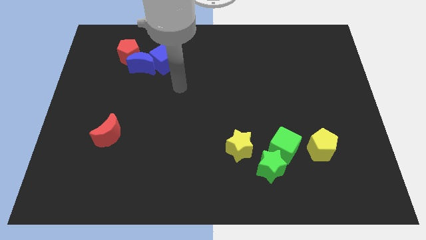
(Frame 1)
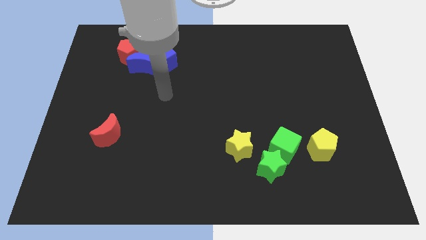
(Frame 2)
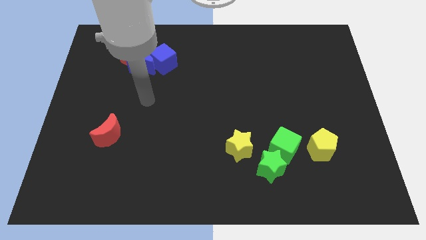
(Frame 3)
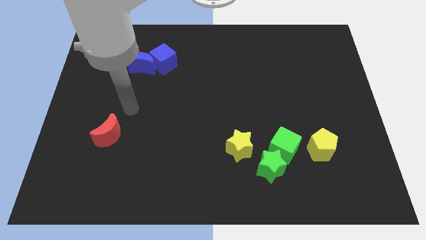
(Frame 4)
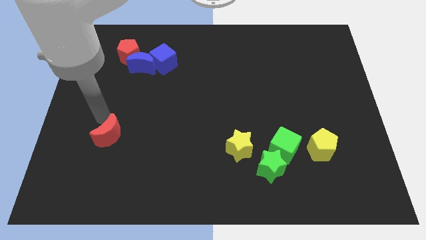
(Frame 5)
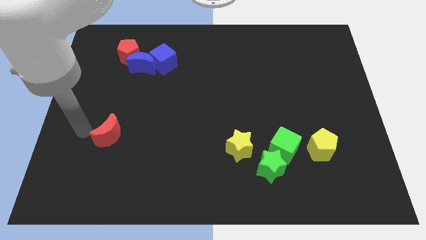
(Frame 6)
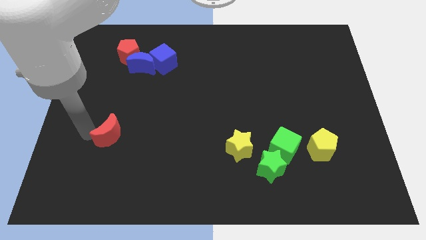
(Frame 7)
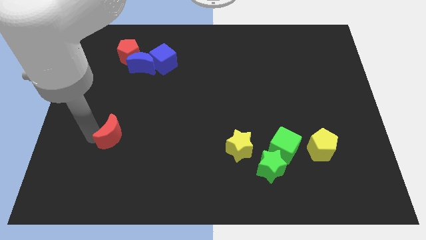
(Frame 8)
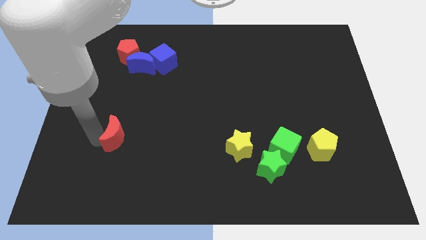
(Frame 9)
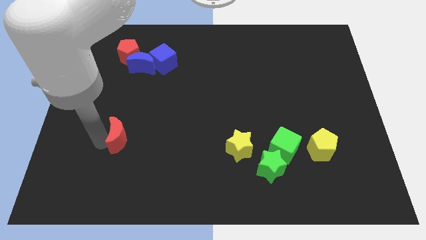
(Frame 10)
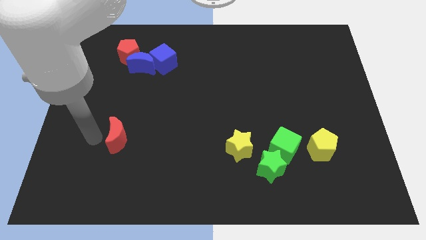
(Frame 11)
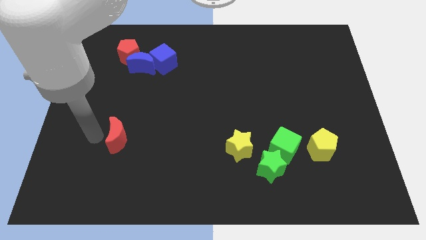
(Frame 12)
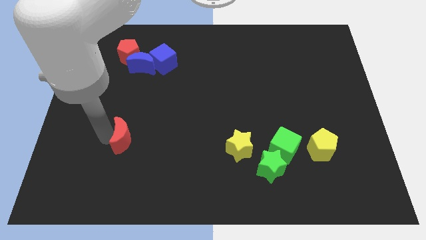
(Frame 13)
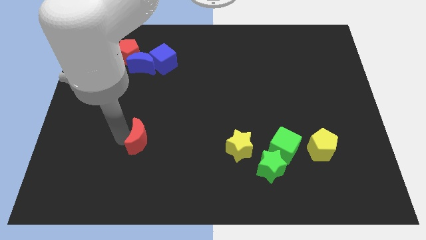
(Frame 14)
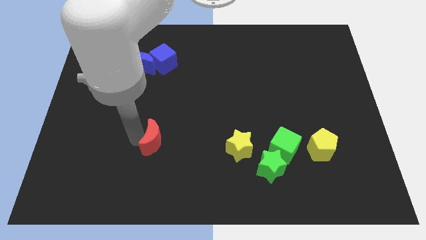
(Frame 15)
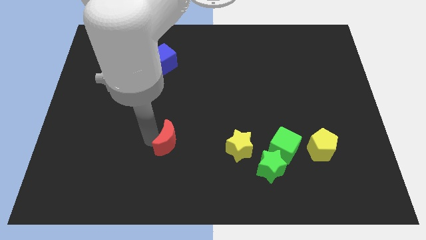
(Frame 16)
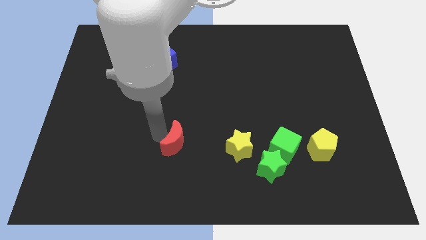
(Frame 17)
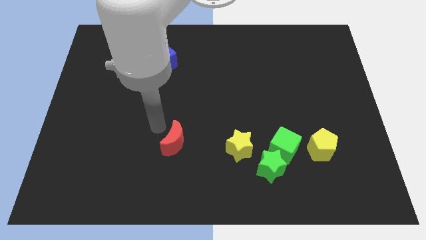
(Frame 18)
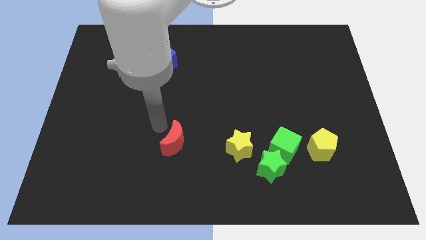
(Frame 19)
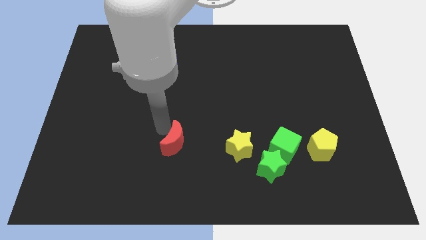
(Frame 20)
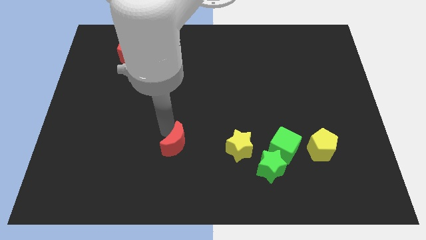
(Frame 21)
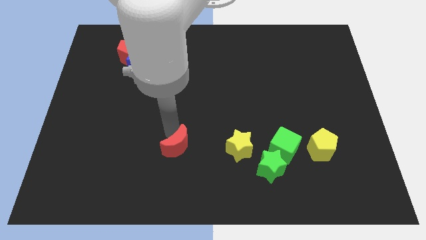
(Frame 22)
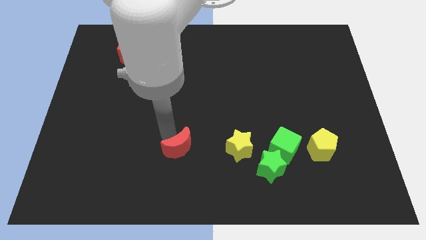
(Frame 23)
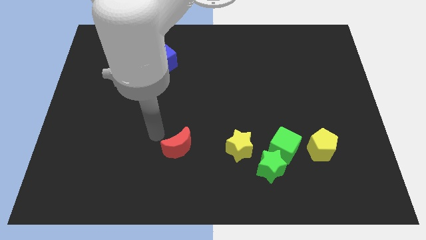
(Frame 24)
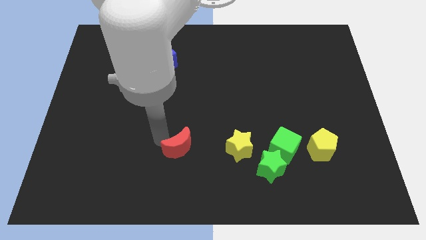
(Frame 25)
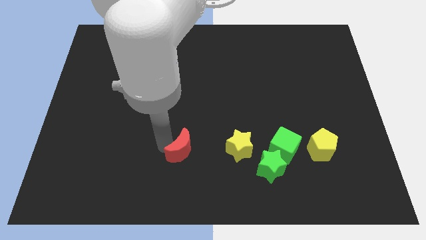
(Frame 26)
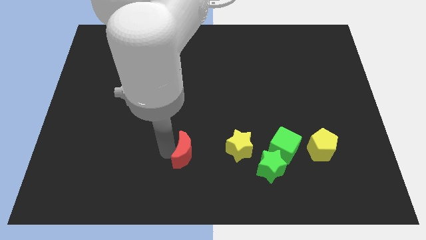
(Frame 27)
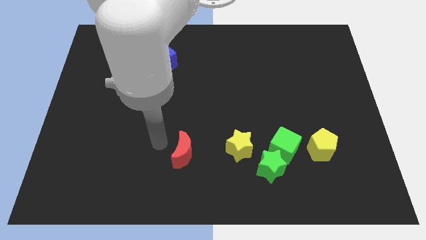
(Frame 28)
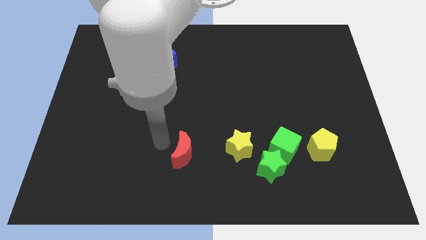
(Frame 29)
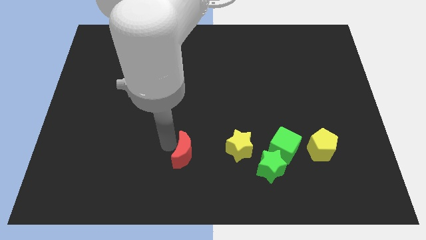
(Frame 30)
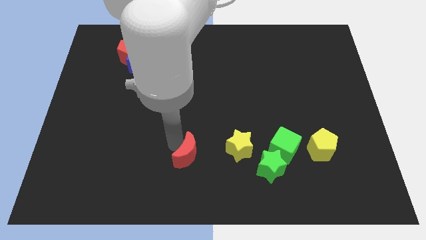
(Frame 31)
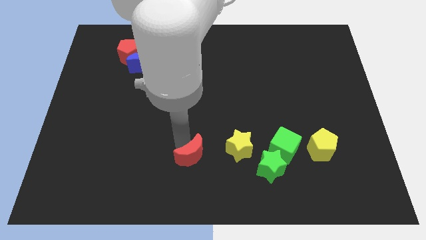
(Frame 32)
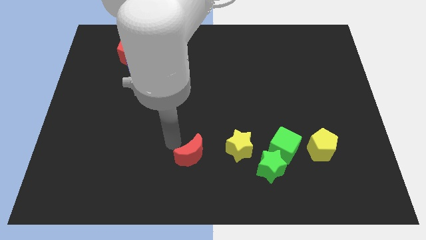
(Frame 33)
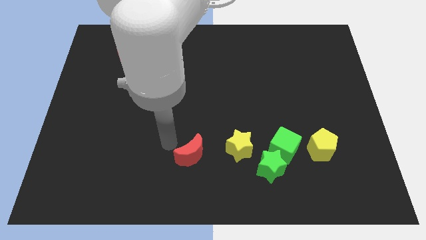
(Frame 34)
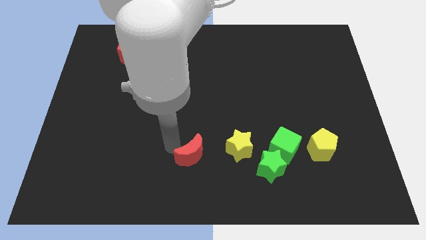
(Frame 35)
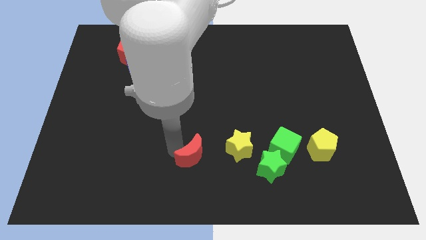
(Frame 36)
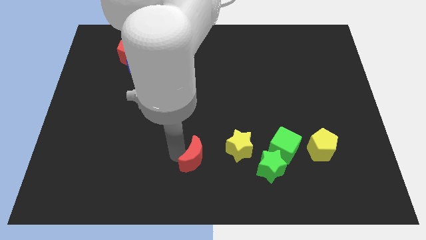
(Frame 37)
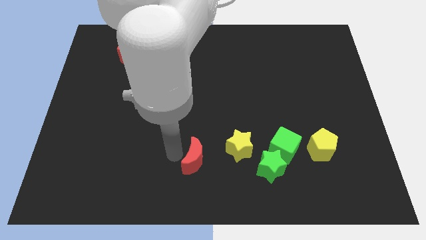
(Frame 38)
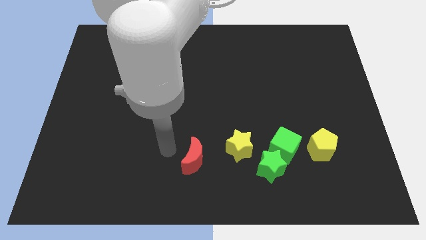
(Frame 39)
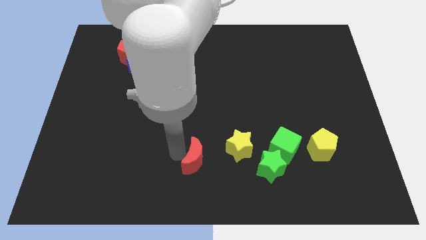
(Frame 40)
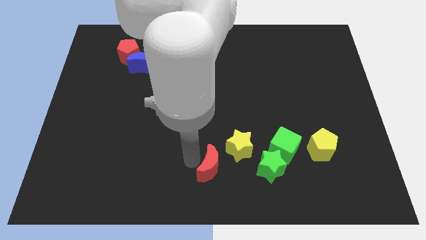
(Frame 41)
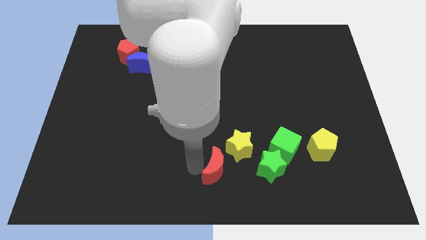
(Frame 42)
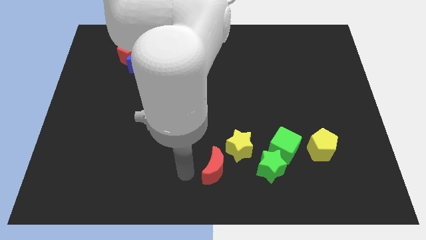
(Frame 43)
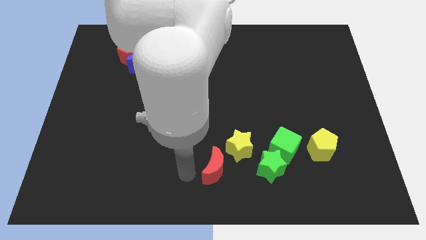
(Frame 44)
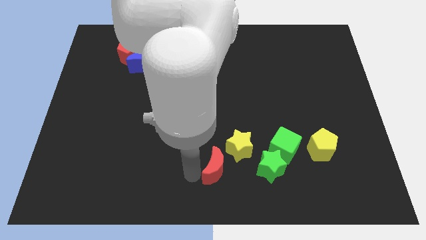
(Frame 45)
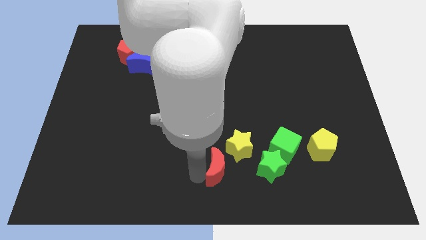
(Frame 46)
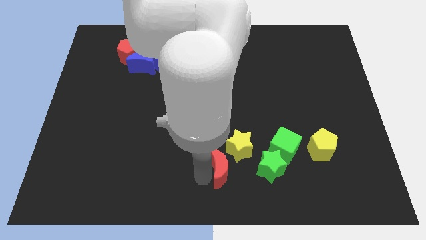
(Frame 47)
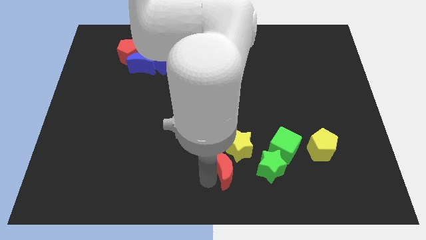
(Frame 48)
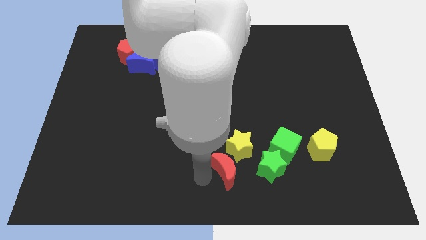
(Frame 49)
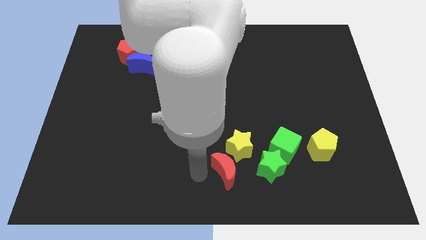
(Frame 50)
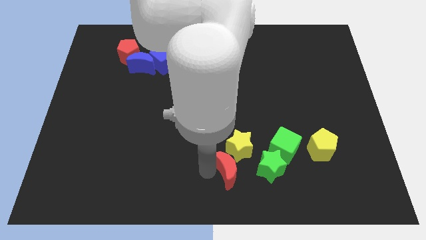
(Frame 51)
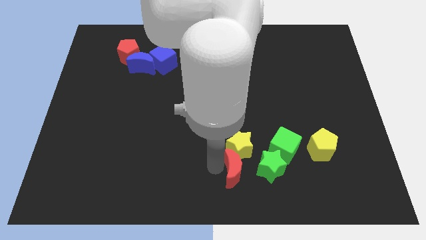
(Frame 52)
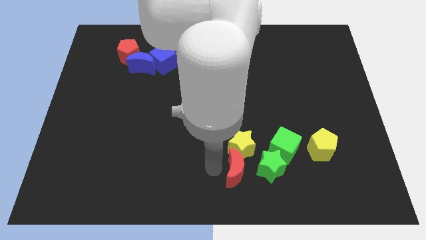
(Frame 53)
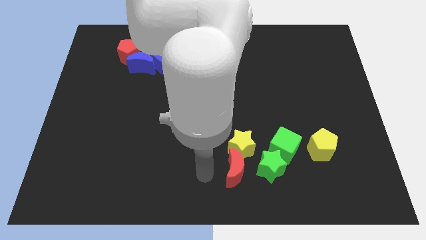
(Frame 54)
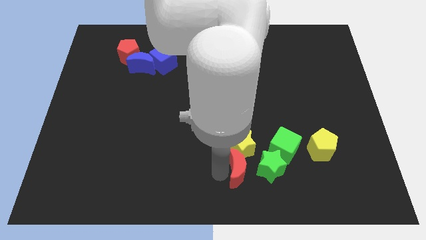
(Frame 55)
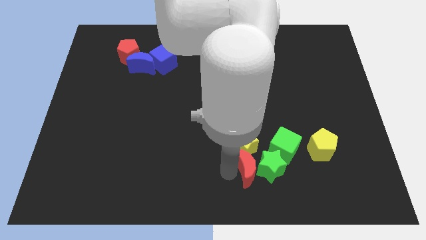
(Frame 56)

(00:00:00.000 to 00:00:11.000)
put the red moon to the green star

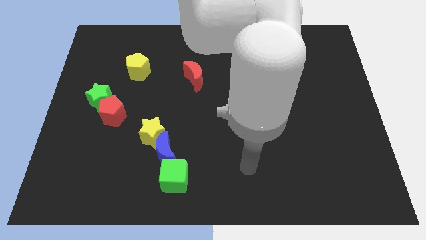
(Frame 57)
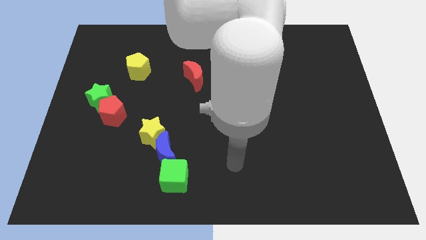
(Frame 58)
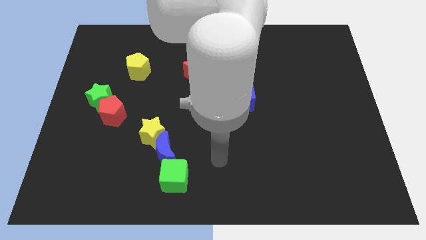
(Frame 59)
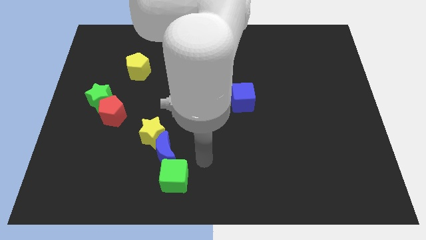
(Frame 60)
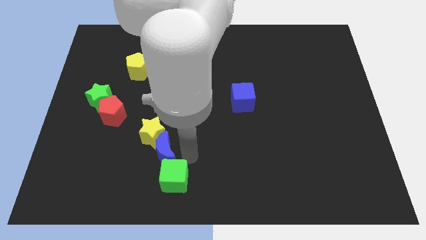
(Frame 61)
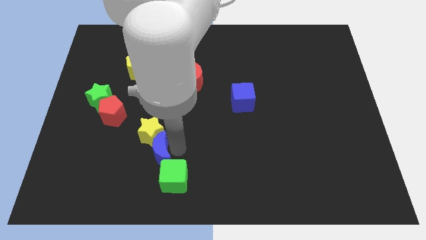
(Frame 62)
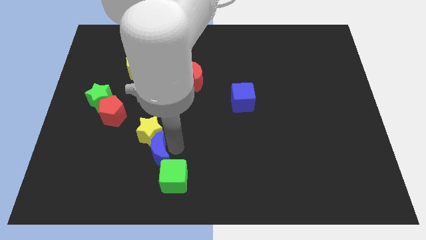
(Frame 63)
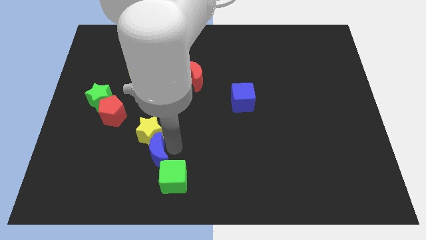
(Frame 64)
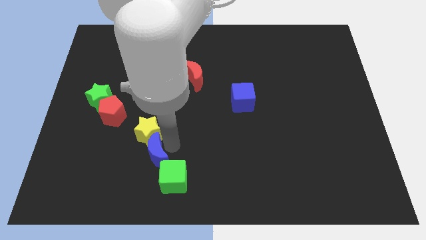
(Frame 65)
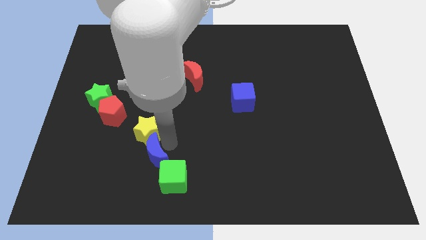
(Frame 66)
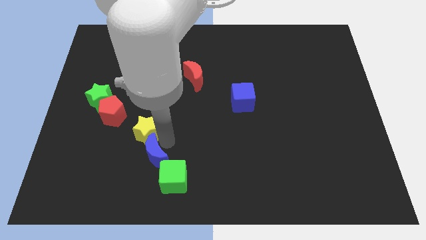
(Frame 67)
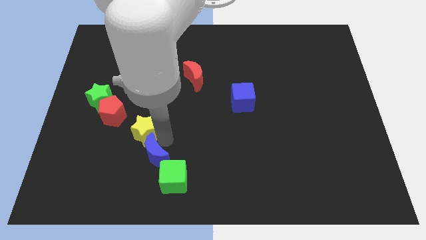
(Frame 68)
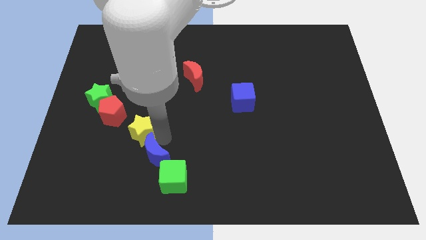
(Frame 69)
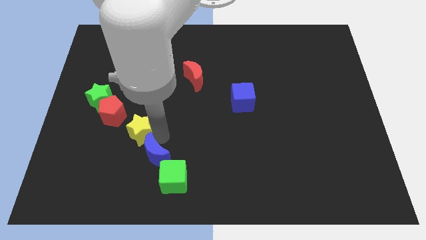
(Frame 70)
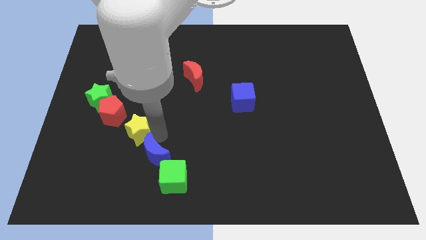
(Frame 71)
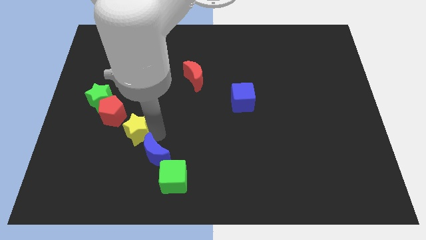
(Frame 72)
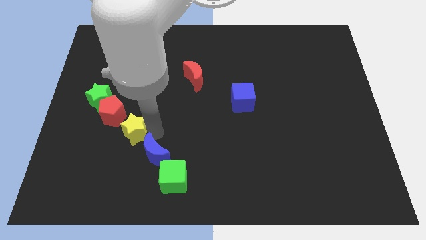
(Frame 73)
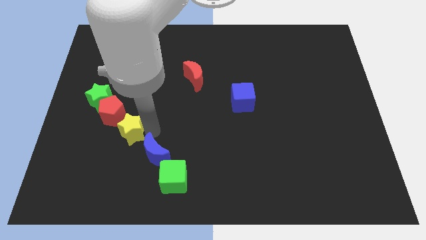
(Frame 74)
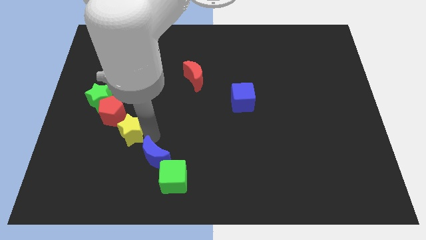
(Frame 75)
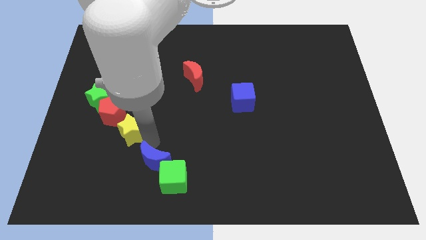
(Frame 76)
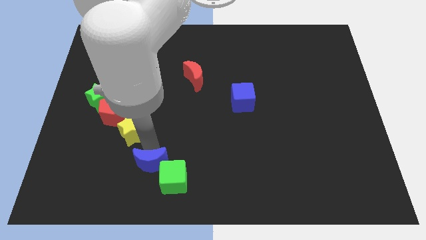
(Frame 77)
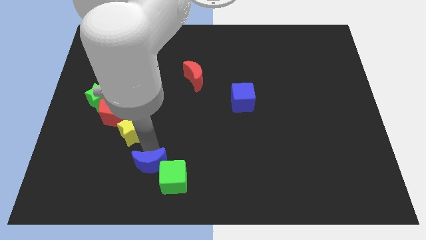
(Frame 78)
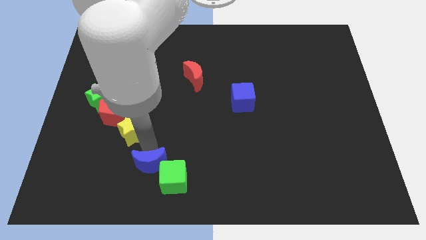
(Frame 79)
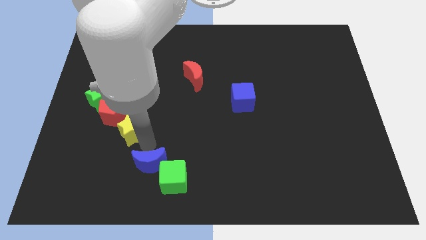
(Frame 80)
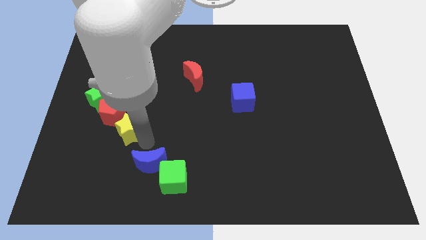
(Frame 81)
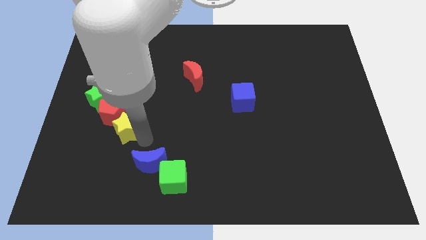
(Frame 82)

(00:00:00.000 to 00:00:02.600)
push the yellow star next to the red pentagon
